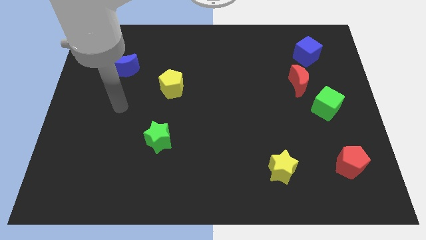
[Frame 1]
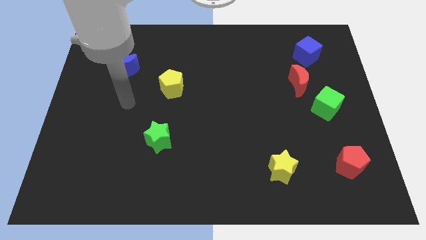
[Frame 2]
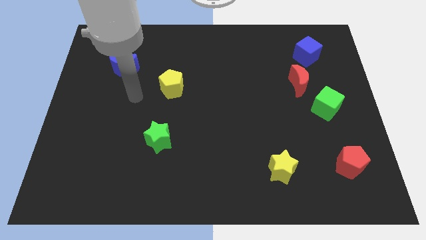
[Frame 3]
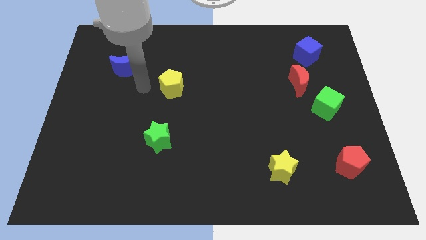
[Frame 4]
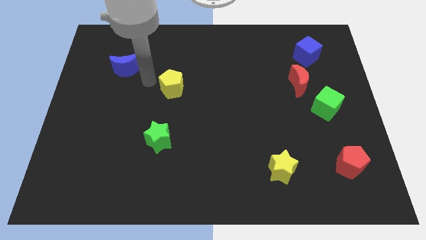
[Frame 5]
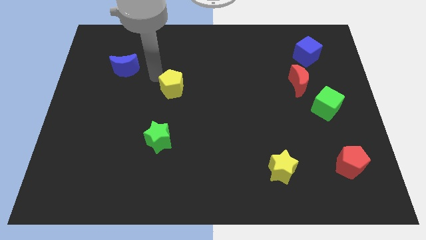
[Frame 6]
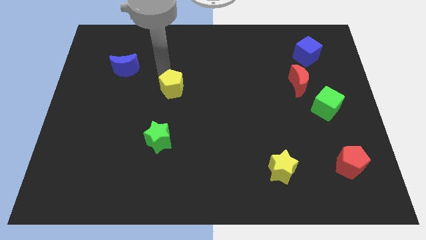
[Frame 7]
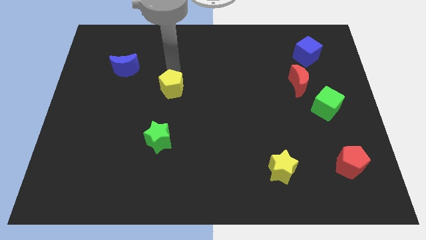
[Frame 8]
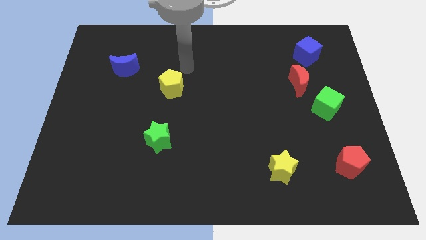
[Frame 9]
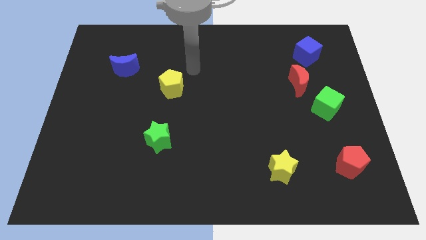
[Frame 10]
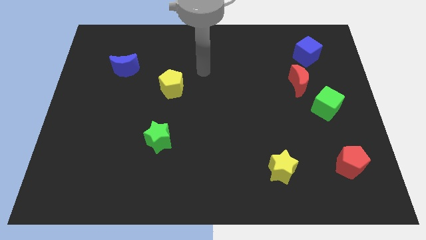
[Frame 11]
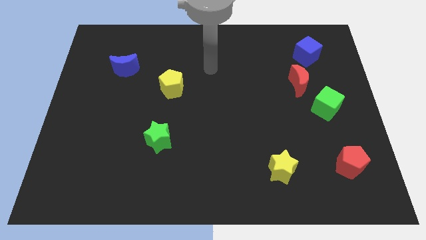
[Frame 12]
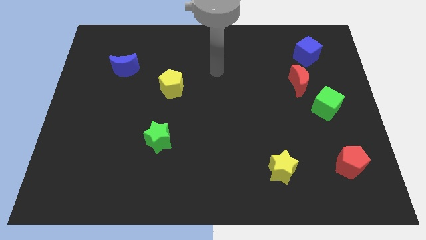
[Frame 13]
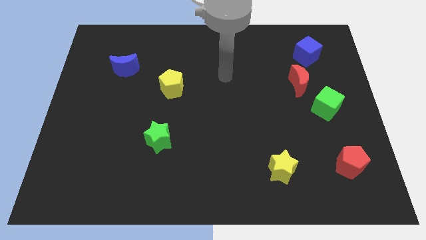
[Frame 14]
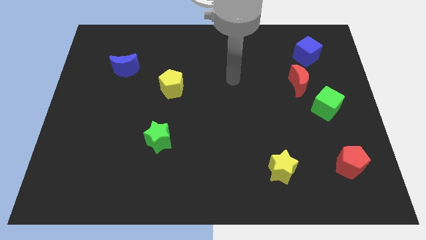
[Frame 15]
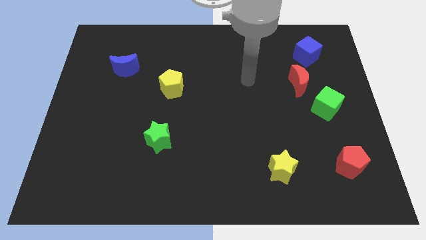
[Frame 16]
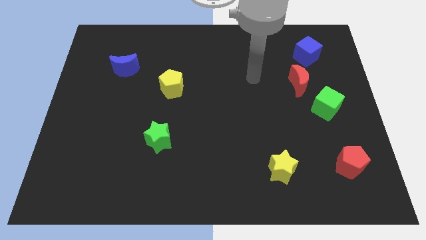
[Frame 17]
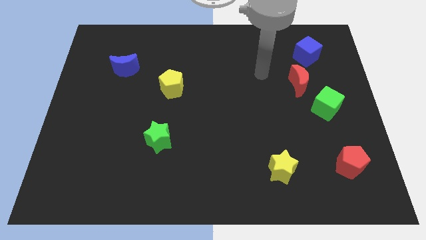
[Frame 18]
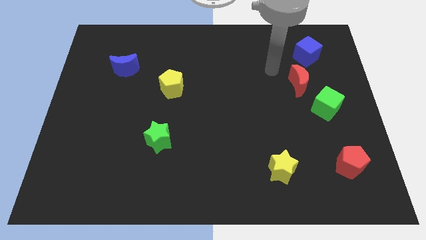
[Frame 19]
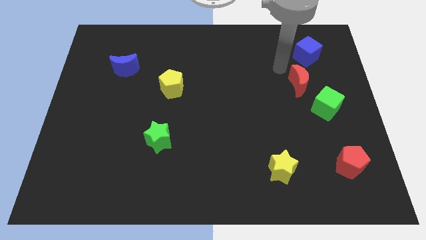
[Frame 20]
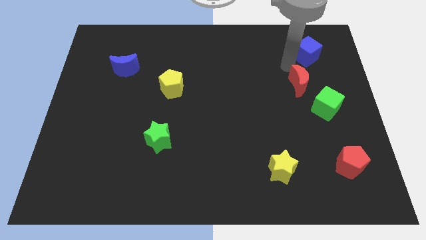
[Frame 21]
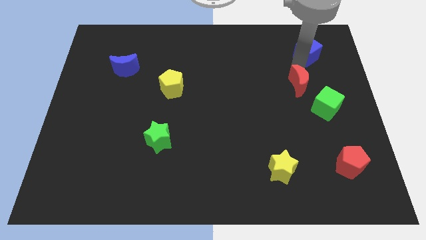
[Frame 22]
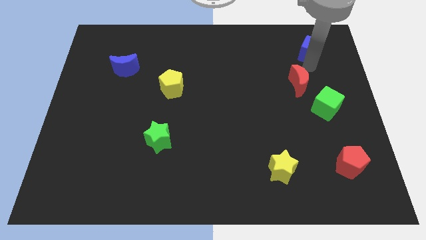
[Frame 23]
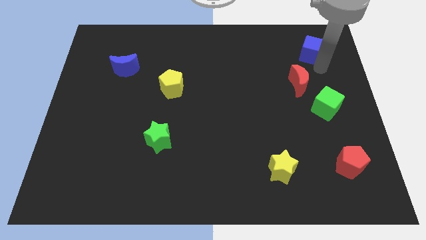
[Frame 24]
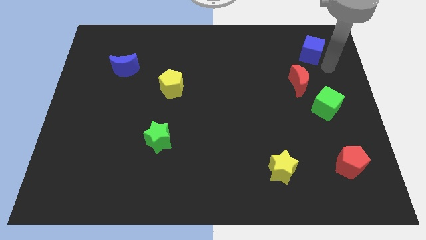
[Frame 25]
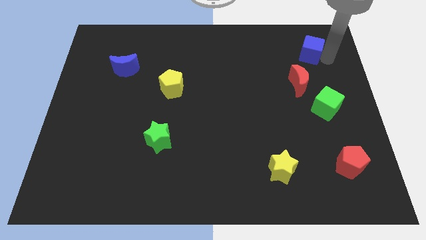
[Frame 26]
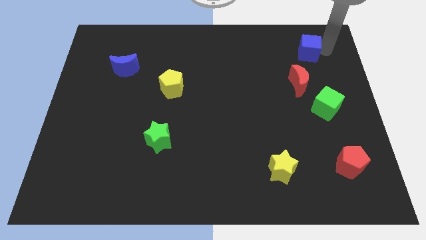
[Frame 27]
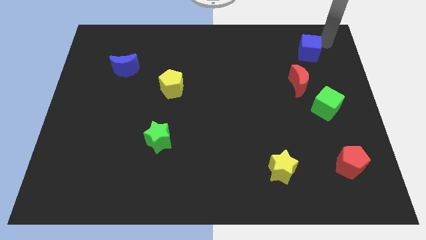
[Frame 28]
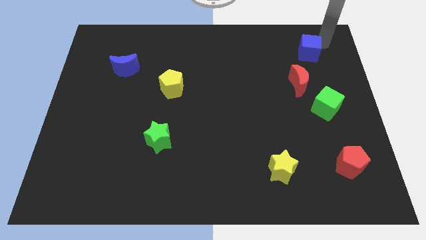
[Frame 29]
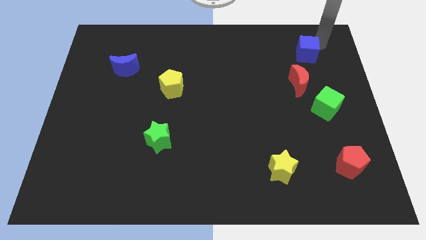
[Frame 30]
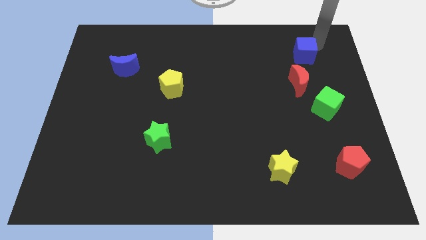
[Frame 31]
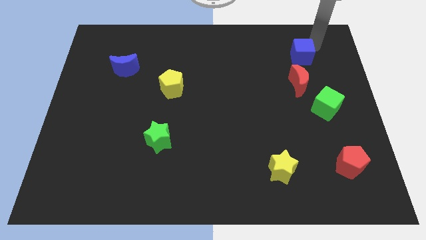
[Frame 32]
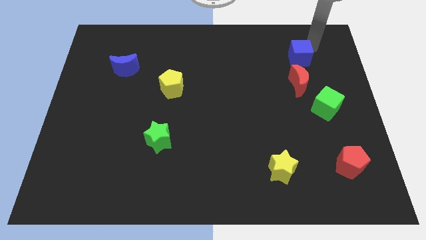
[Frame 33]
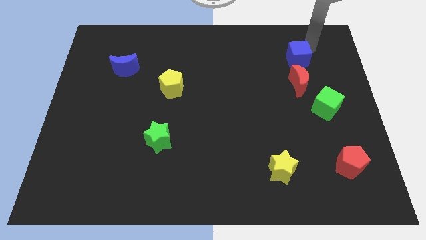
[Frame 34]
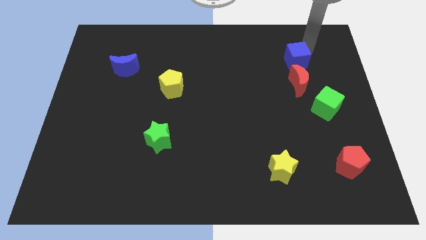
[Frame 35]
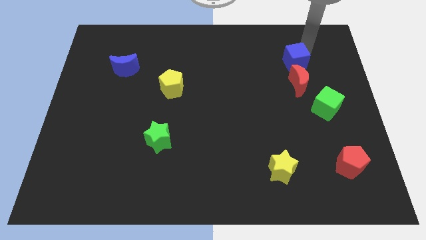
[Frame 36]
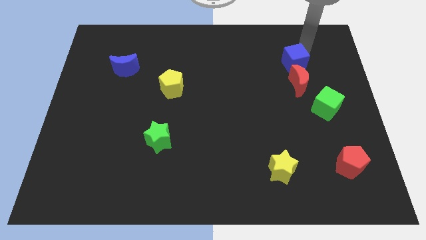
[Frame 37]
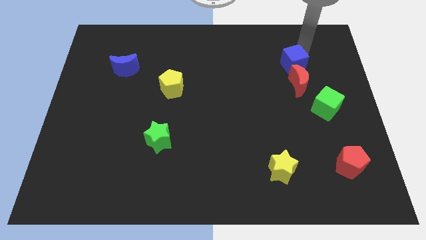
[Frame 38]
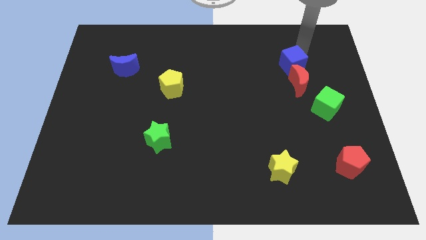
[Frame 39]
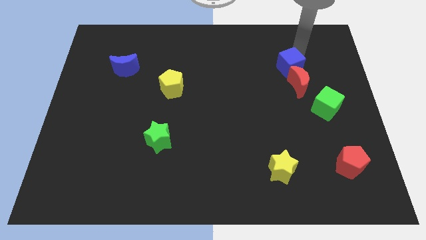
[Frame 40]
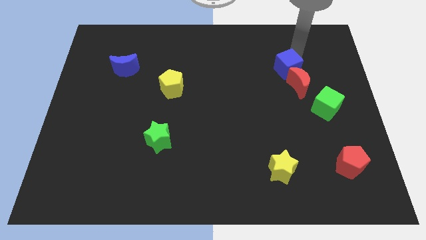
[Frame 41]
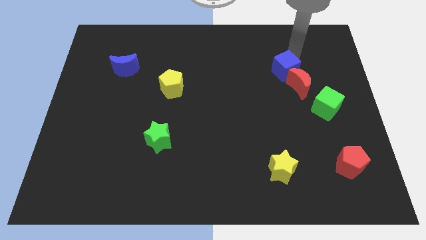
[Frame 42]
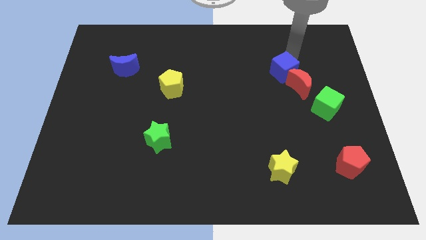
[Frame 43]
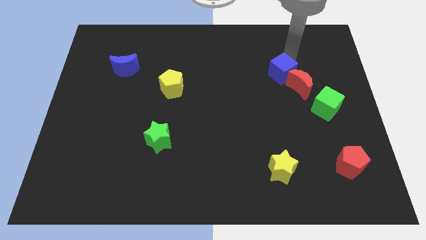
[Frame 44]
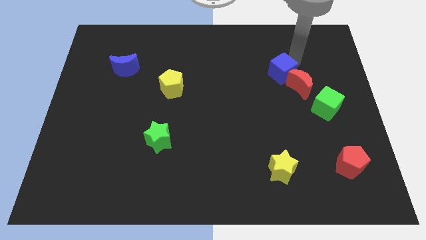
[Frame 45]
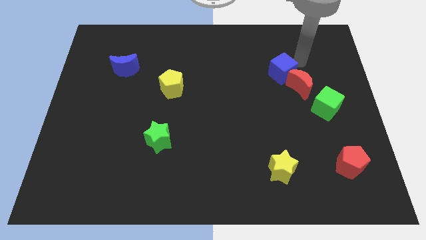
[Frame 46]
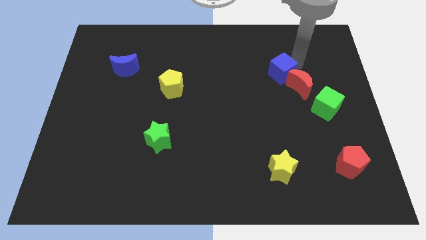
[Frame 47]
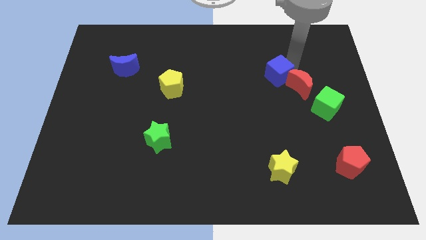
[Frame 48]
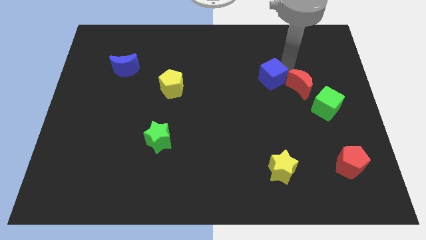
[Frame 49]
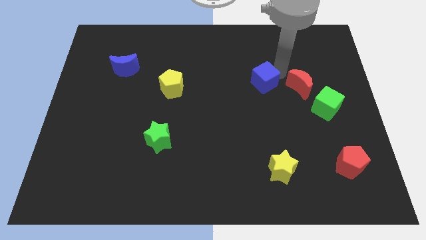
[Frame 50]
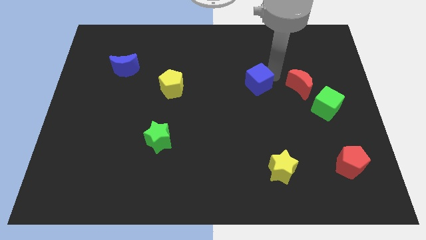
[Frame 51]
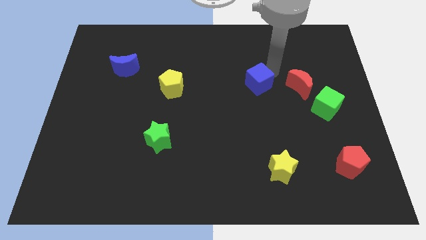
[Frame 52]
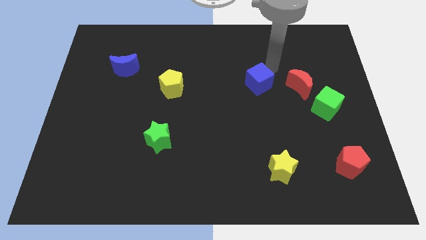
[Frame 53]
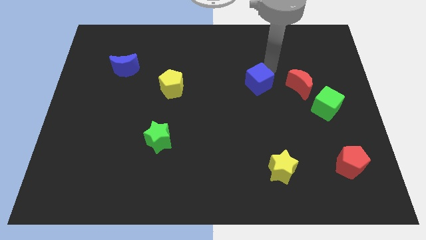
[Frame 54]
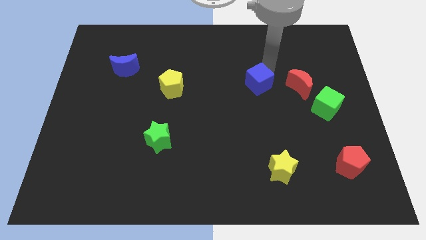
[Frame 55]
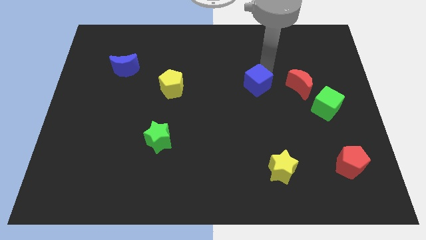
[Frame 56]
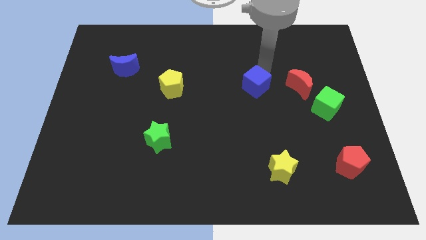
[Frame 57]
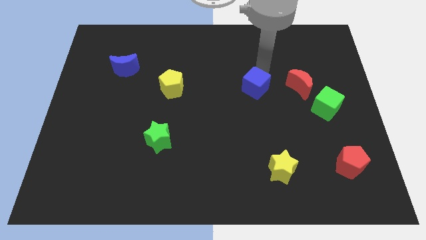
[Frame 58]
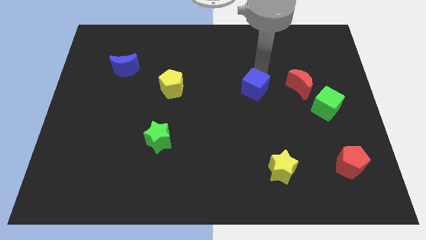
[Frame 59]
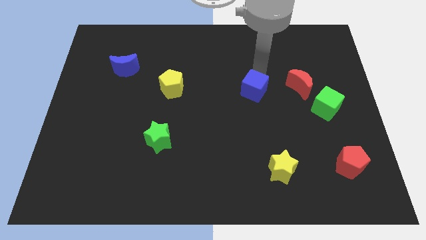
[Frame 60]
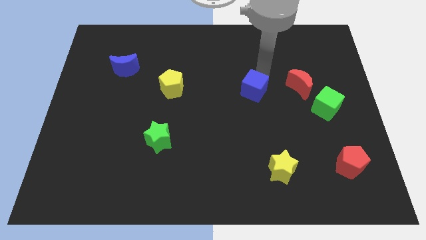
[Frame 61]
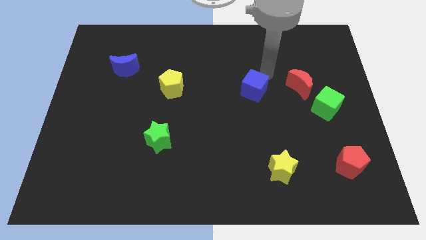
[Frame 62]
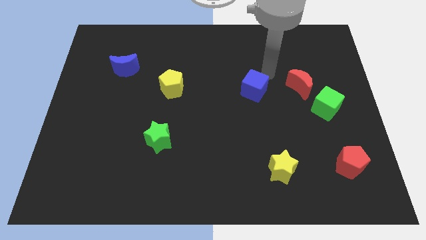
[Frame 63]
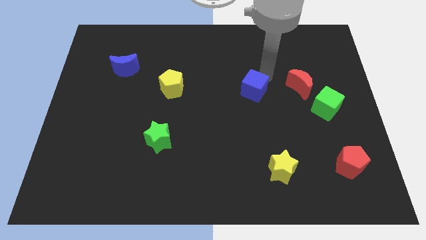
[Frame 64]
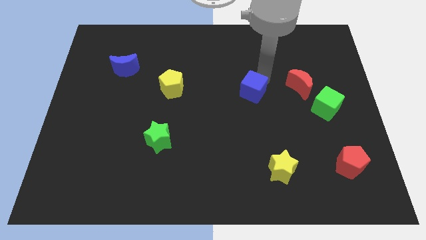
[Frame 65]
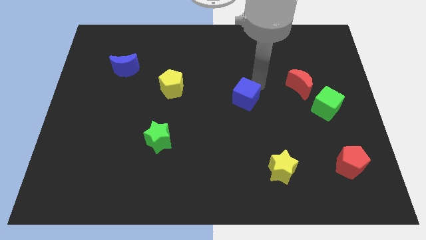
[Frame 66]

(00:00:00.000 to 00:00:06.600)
slide the blue cube down and then to the left

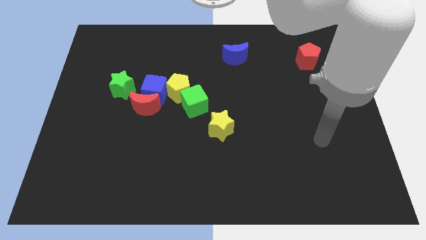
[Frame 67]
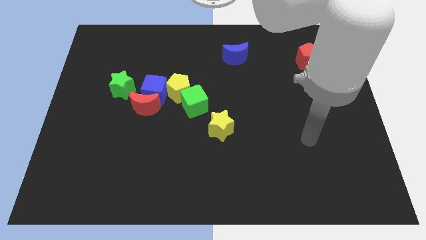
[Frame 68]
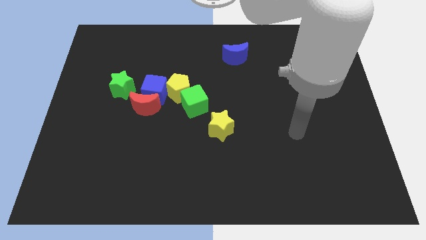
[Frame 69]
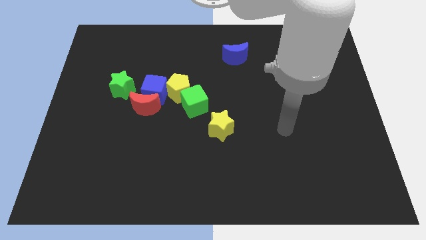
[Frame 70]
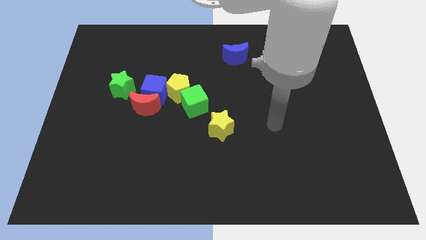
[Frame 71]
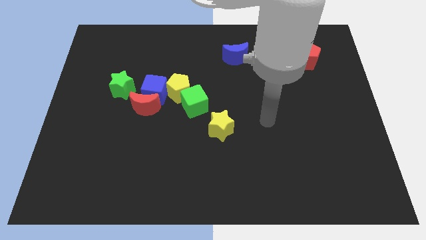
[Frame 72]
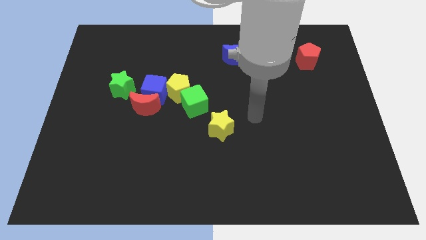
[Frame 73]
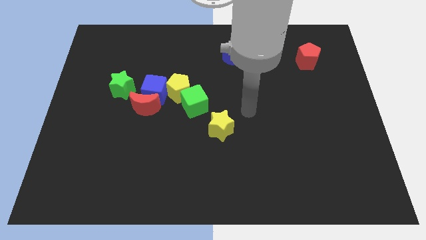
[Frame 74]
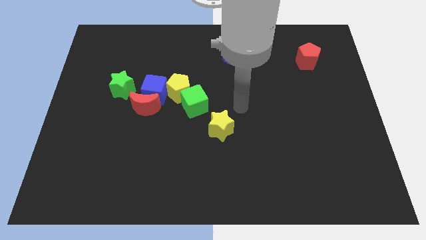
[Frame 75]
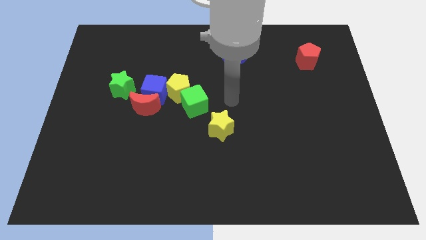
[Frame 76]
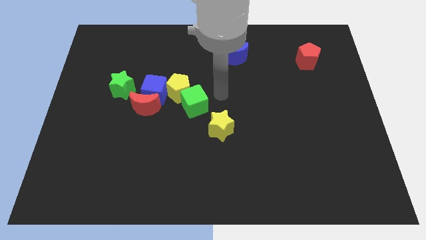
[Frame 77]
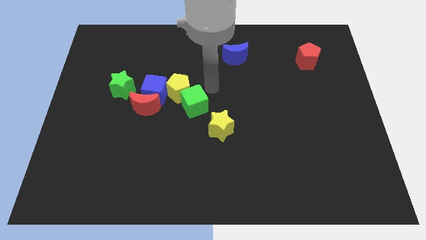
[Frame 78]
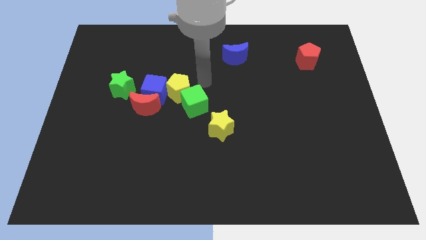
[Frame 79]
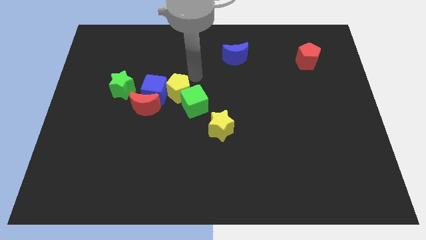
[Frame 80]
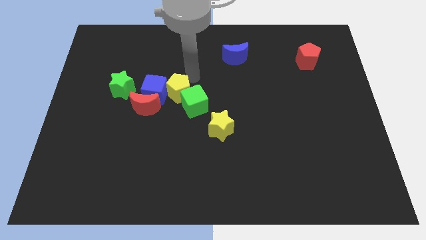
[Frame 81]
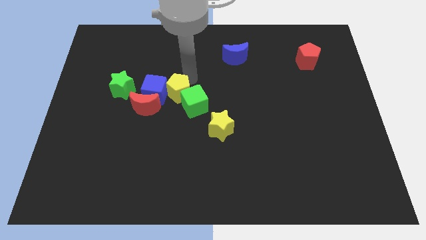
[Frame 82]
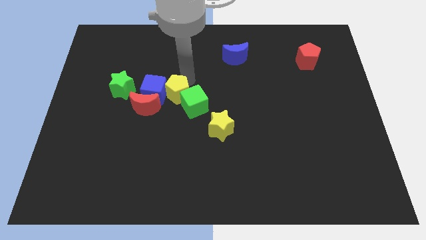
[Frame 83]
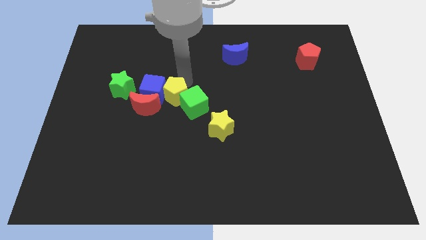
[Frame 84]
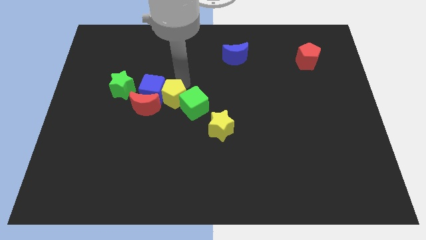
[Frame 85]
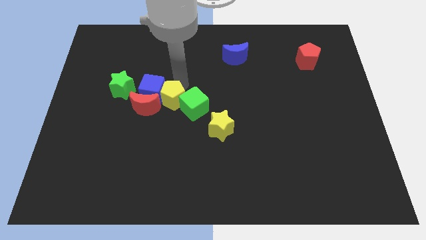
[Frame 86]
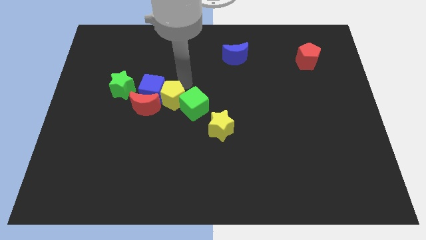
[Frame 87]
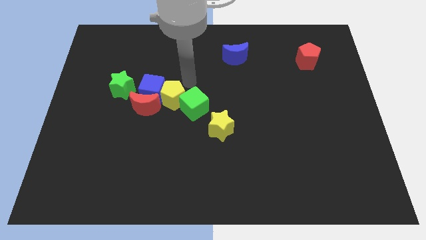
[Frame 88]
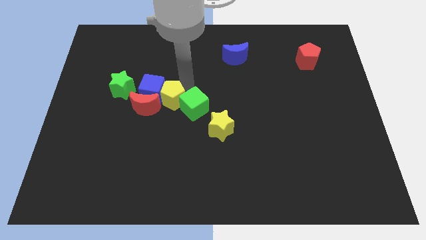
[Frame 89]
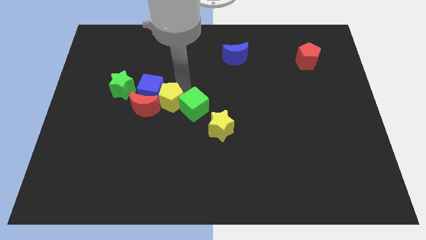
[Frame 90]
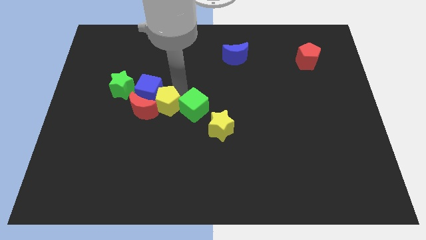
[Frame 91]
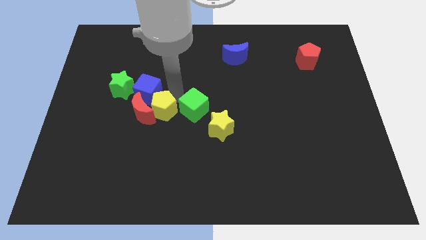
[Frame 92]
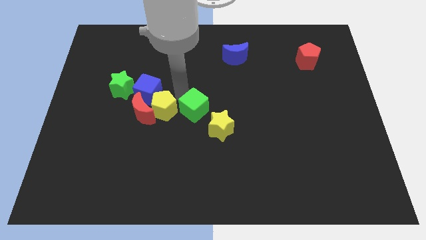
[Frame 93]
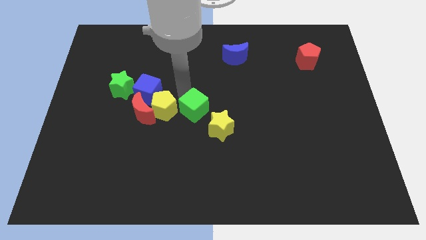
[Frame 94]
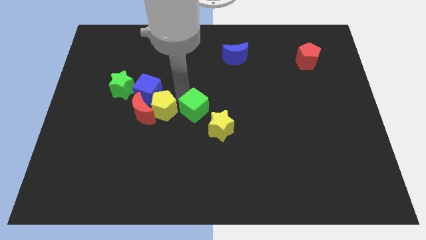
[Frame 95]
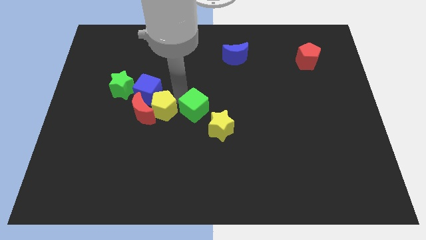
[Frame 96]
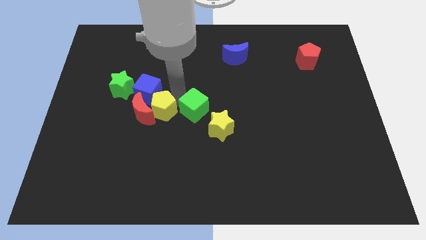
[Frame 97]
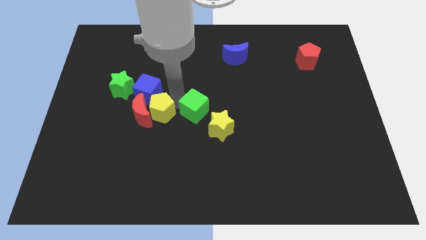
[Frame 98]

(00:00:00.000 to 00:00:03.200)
slide the yellow pentagon a little down and then left
